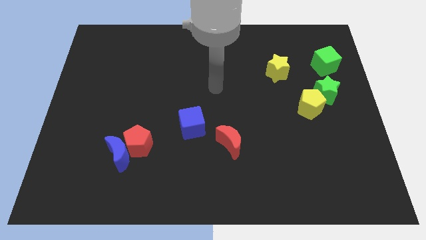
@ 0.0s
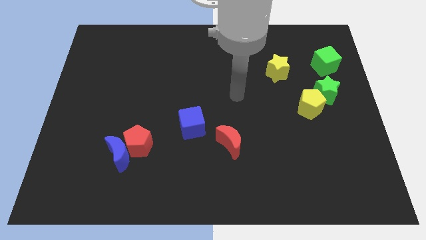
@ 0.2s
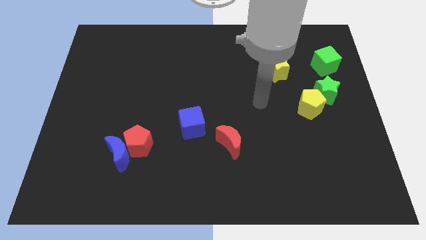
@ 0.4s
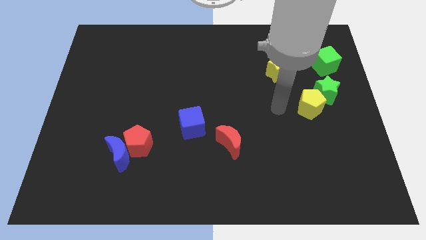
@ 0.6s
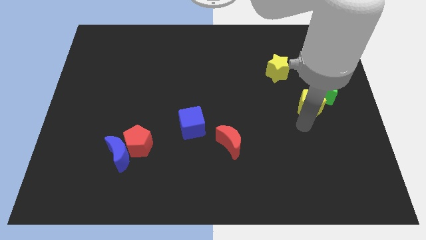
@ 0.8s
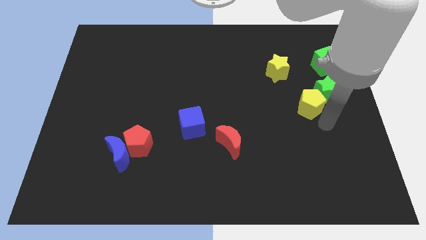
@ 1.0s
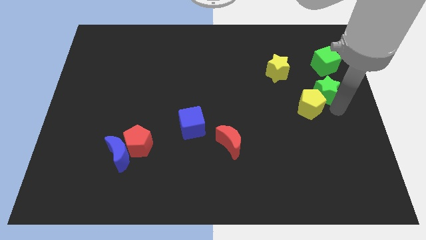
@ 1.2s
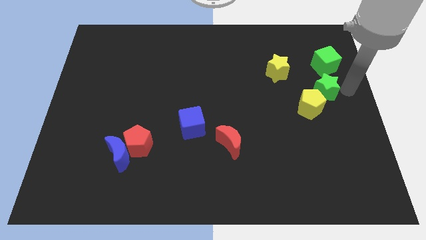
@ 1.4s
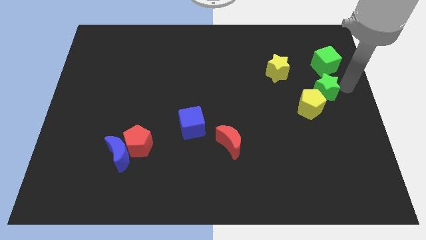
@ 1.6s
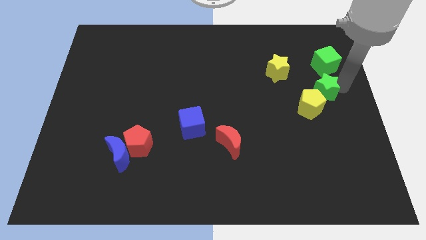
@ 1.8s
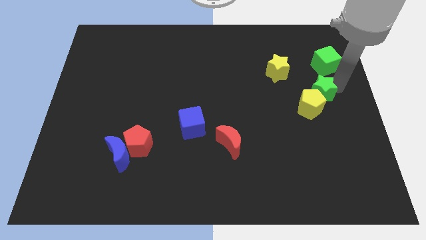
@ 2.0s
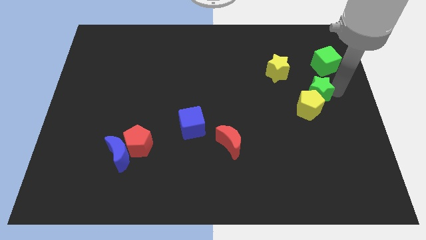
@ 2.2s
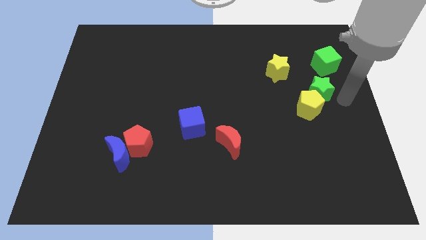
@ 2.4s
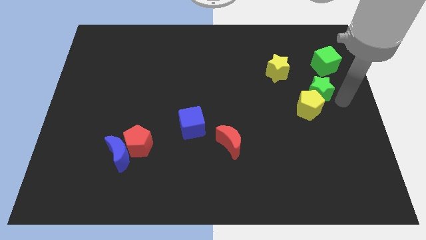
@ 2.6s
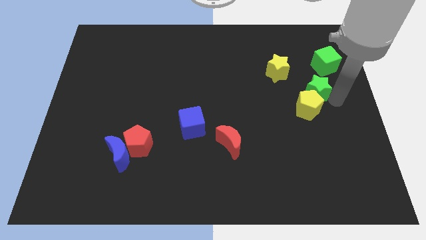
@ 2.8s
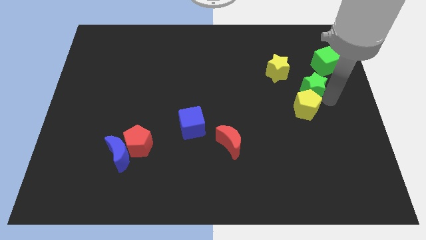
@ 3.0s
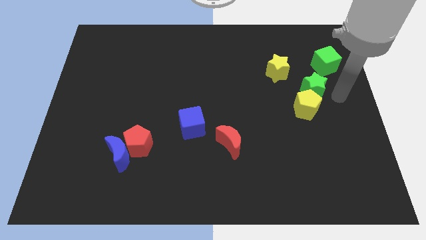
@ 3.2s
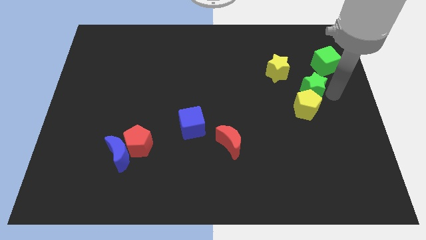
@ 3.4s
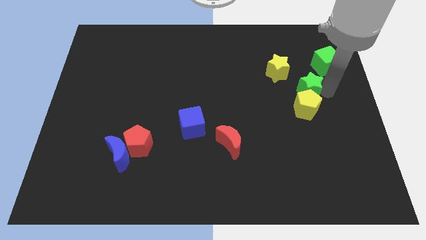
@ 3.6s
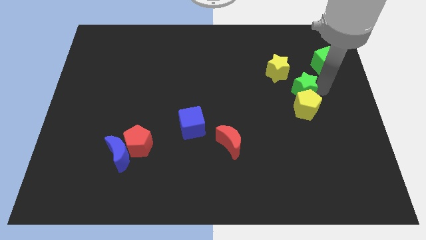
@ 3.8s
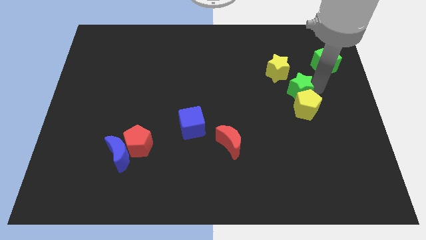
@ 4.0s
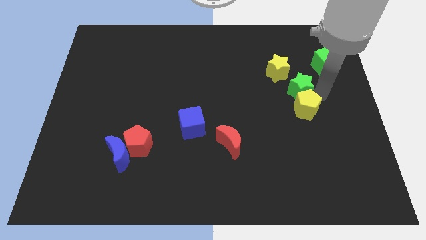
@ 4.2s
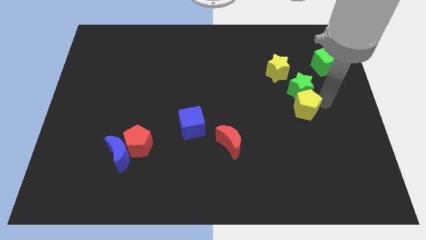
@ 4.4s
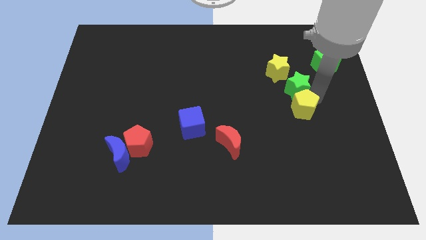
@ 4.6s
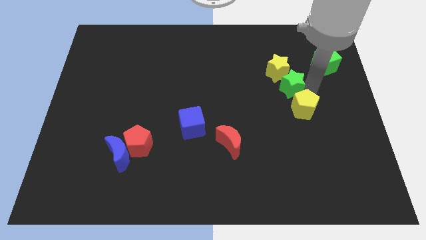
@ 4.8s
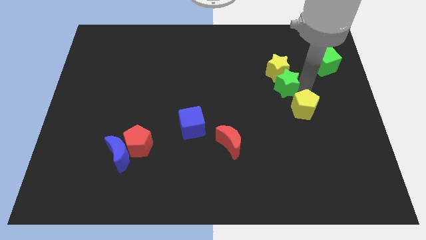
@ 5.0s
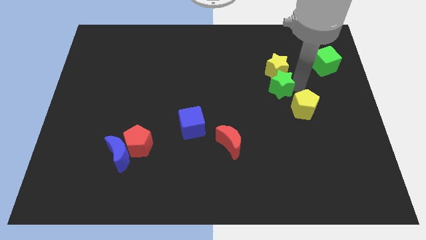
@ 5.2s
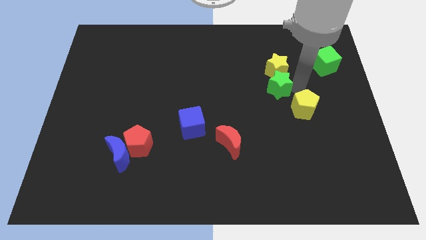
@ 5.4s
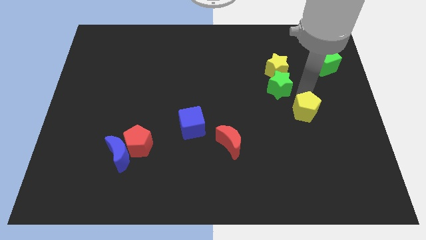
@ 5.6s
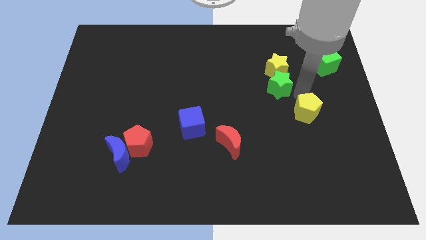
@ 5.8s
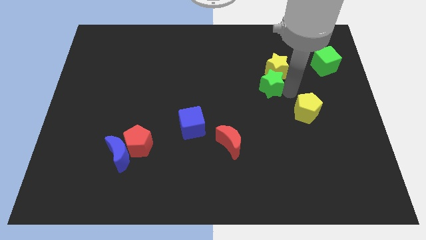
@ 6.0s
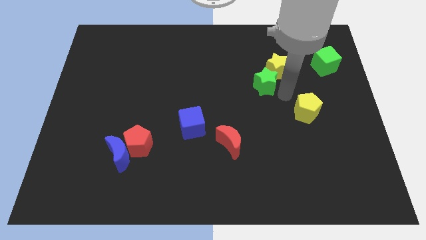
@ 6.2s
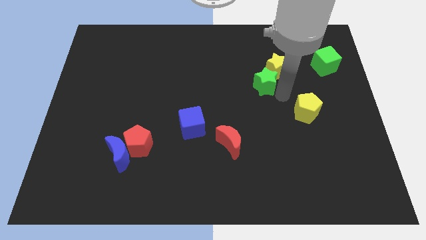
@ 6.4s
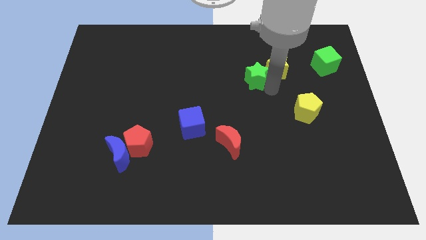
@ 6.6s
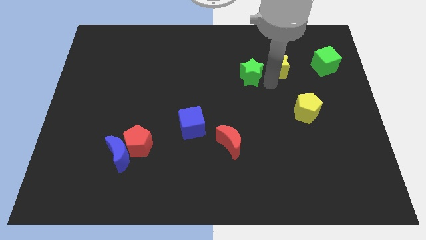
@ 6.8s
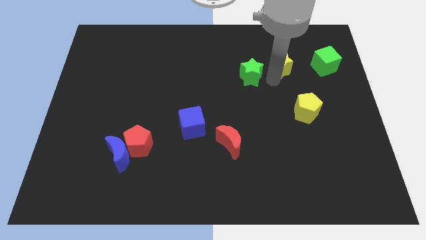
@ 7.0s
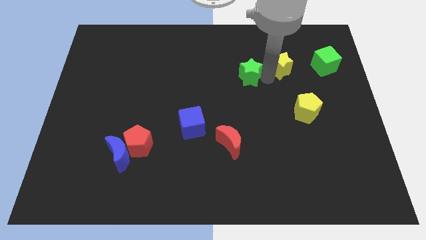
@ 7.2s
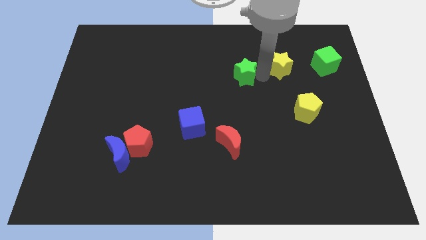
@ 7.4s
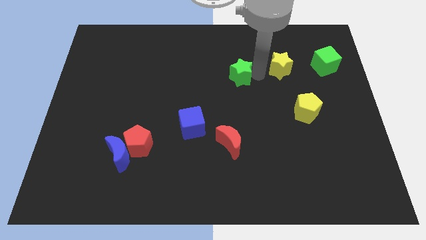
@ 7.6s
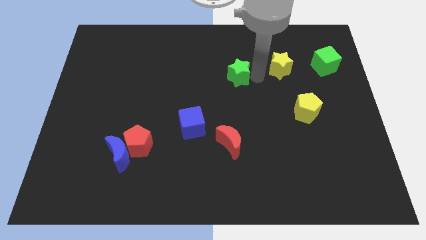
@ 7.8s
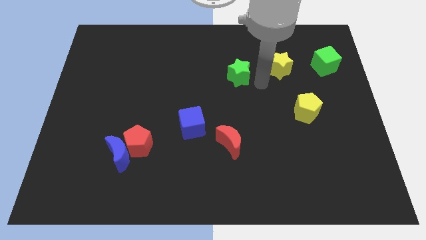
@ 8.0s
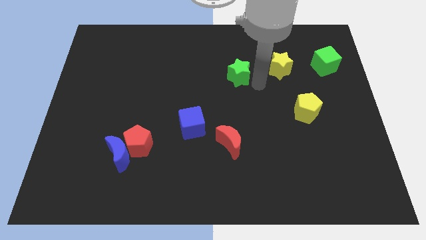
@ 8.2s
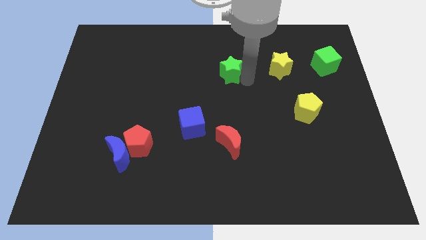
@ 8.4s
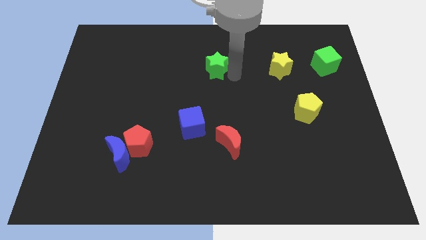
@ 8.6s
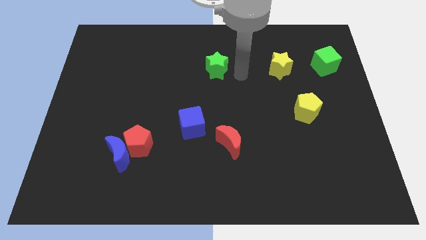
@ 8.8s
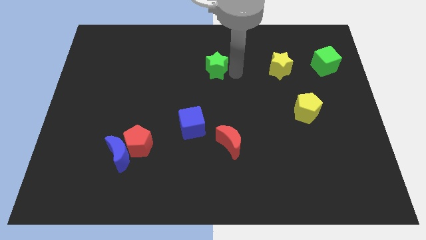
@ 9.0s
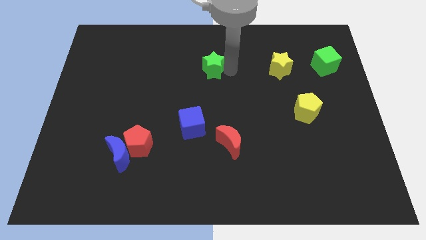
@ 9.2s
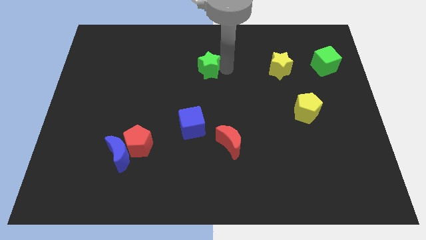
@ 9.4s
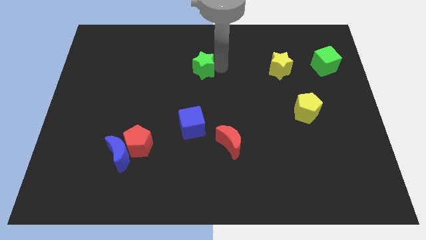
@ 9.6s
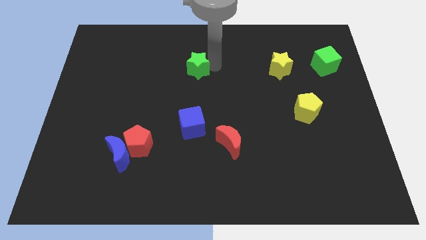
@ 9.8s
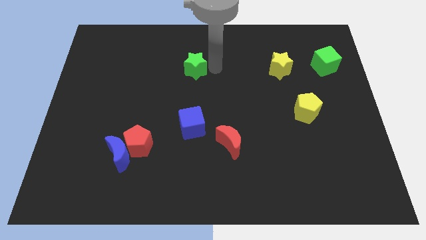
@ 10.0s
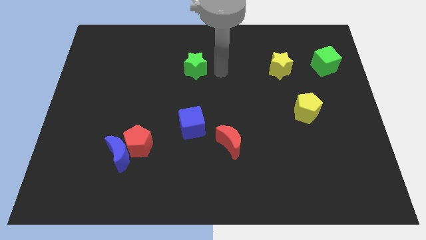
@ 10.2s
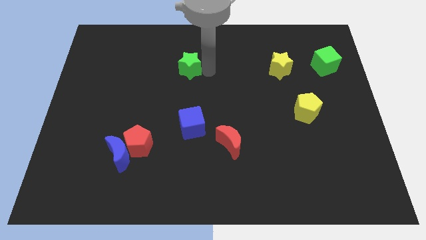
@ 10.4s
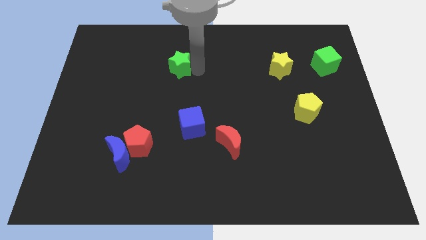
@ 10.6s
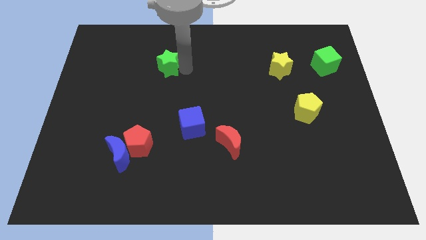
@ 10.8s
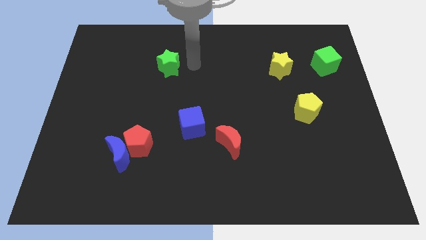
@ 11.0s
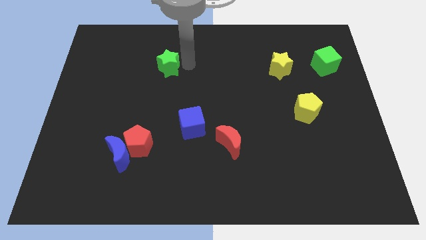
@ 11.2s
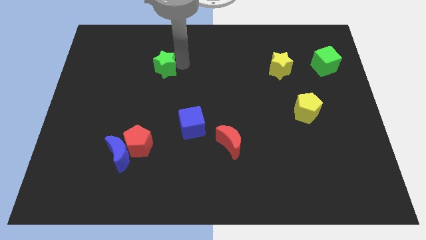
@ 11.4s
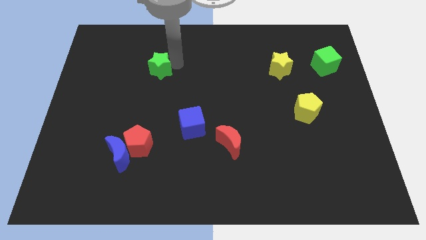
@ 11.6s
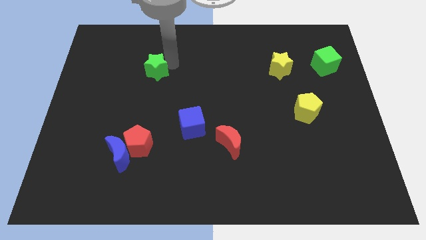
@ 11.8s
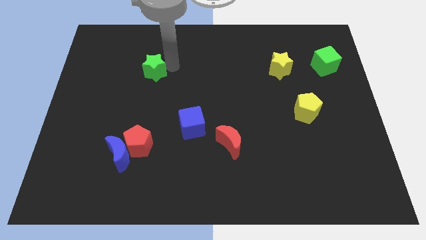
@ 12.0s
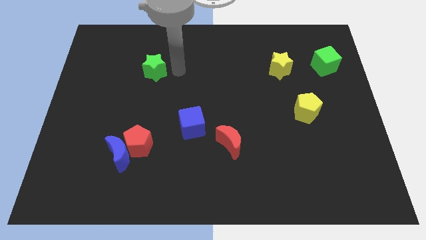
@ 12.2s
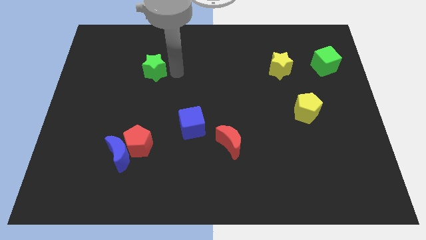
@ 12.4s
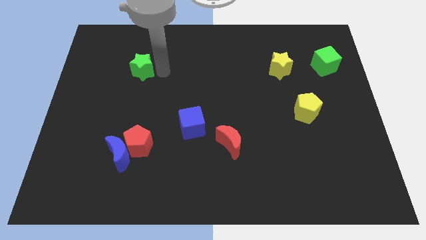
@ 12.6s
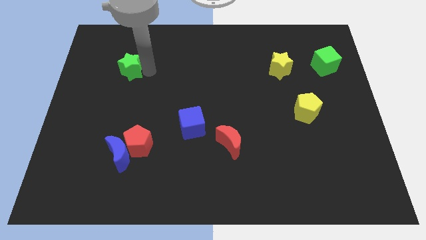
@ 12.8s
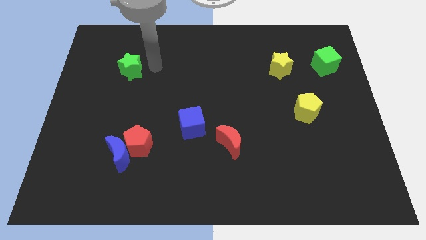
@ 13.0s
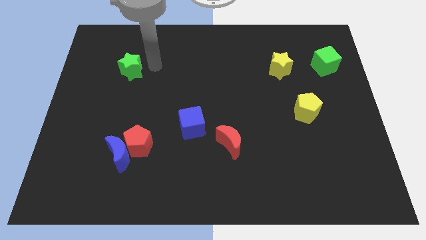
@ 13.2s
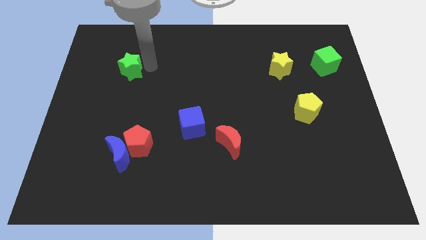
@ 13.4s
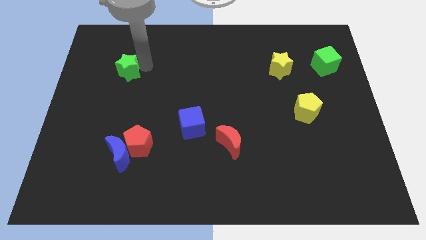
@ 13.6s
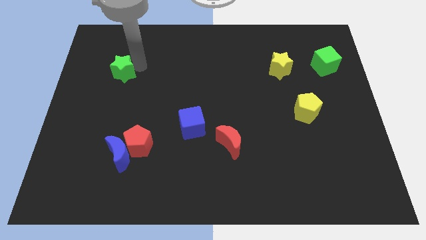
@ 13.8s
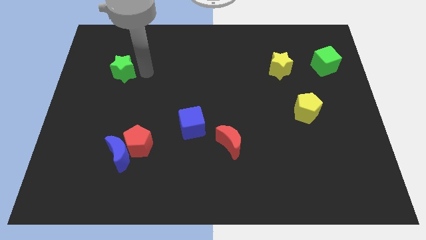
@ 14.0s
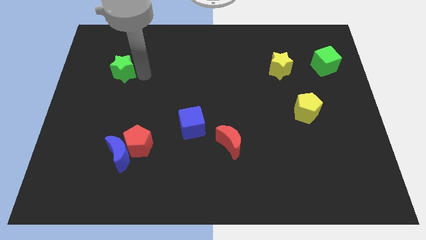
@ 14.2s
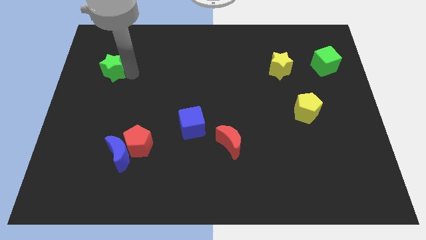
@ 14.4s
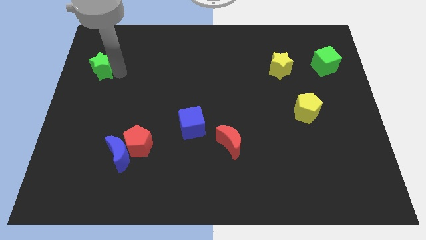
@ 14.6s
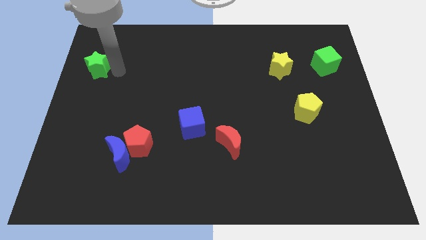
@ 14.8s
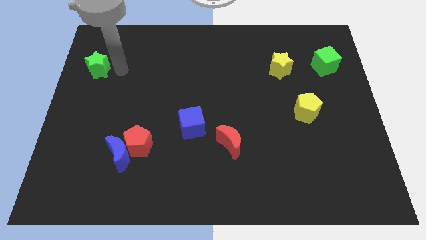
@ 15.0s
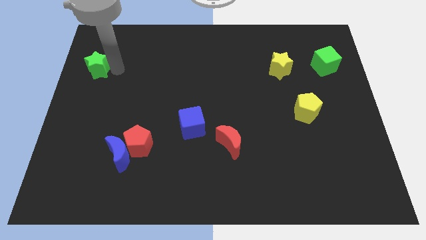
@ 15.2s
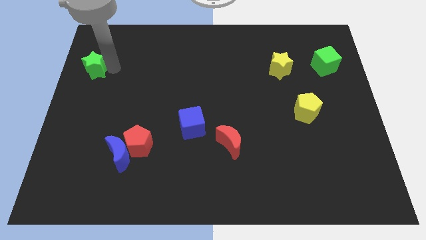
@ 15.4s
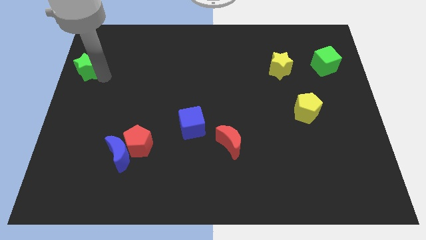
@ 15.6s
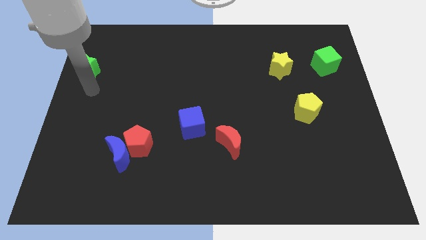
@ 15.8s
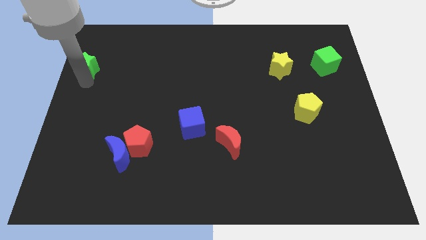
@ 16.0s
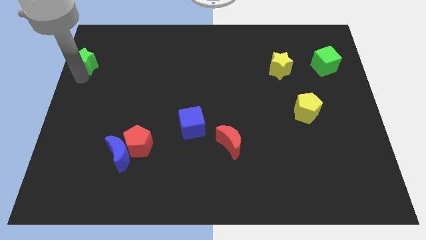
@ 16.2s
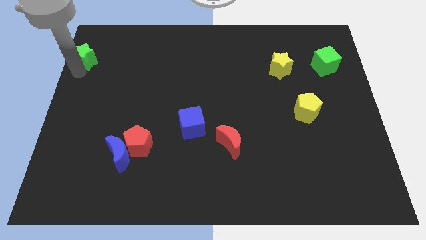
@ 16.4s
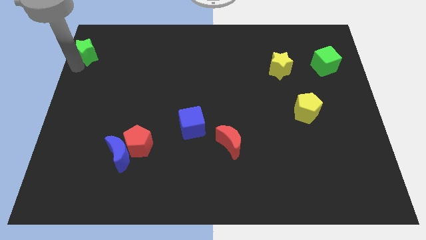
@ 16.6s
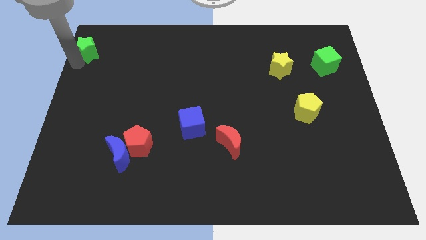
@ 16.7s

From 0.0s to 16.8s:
push the green star to the top left of the board
